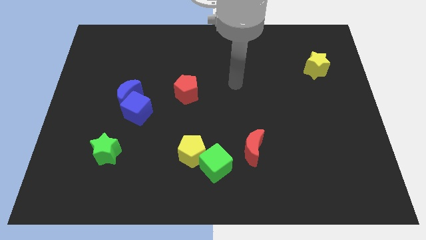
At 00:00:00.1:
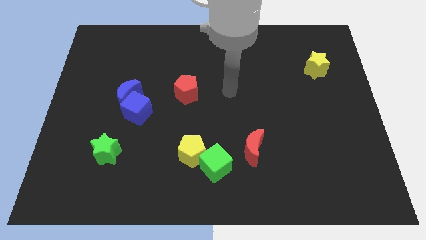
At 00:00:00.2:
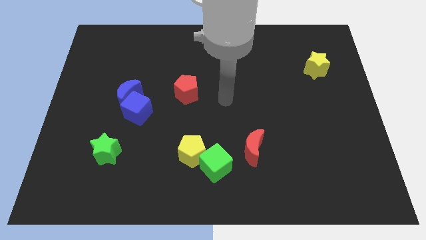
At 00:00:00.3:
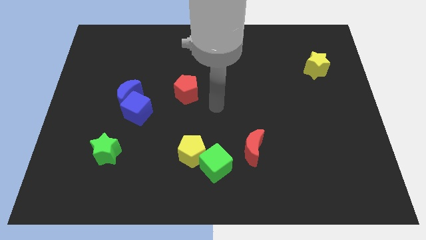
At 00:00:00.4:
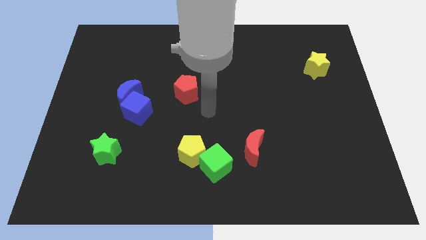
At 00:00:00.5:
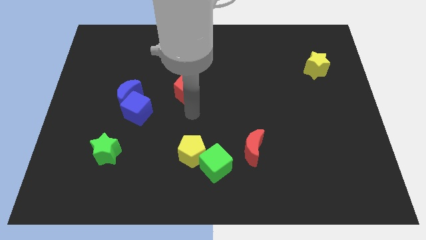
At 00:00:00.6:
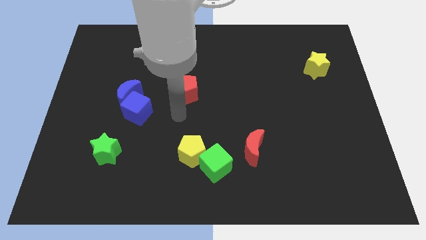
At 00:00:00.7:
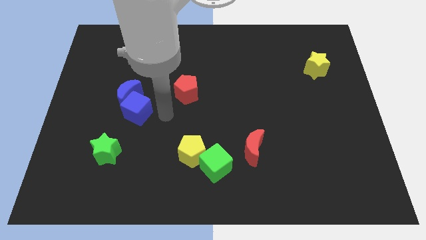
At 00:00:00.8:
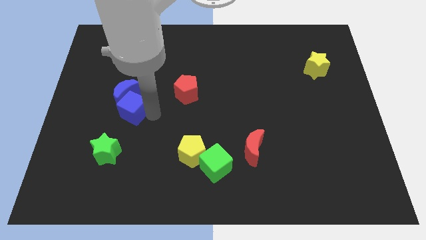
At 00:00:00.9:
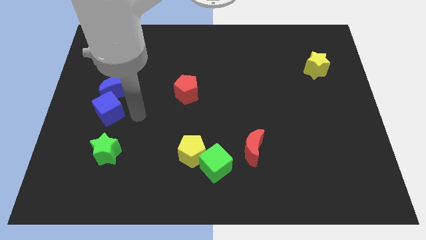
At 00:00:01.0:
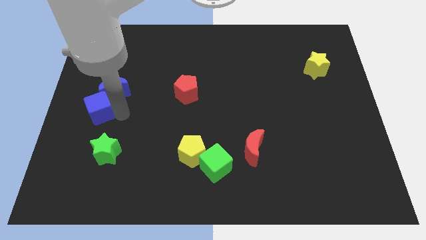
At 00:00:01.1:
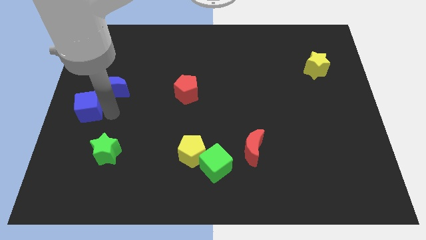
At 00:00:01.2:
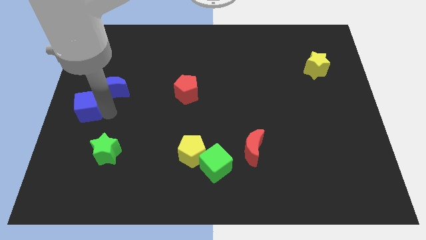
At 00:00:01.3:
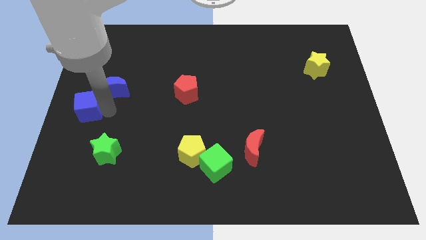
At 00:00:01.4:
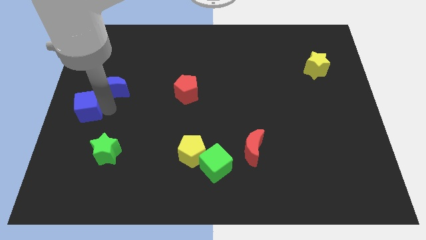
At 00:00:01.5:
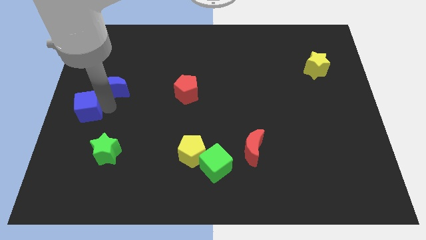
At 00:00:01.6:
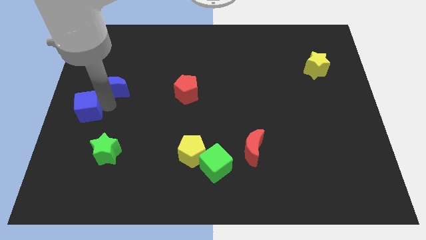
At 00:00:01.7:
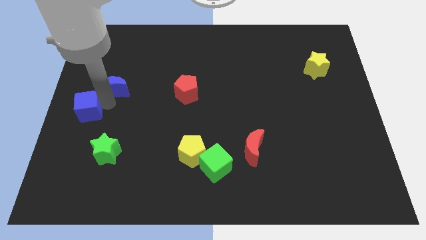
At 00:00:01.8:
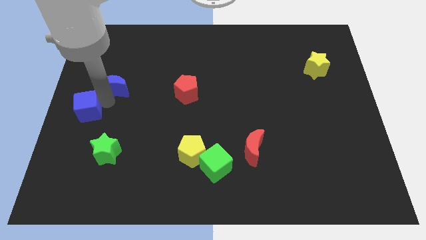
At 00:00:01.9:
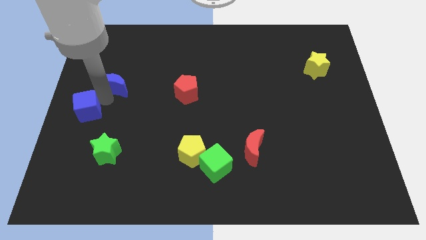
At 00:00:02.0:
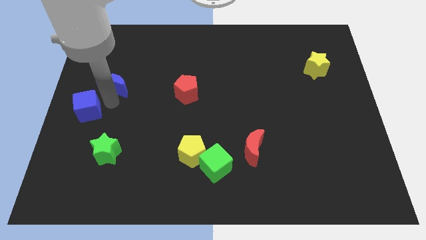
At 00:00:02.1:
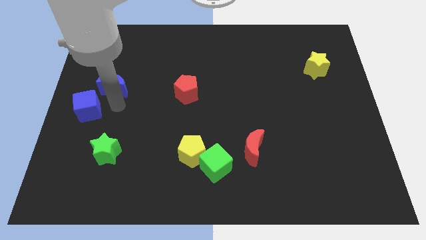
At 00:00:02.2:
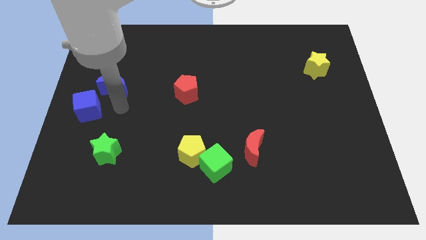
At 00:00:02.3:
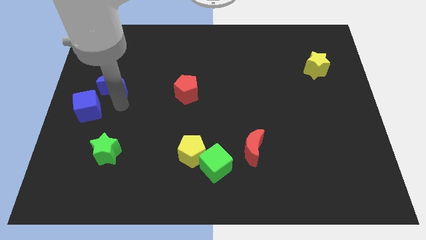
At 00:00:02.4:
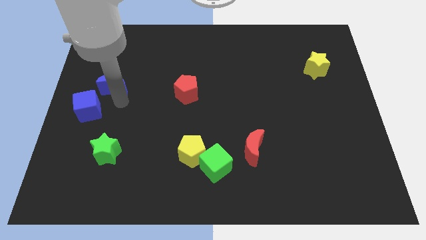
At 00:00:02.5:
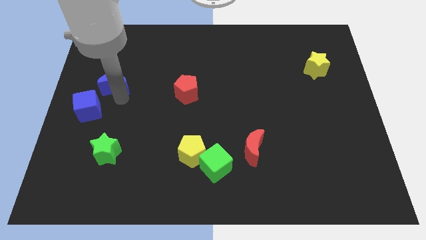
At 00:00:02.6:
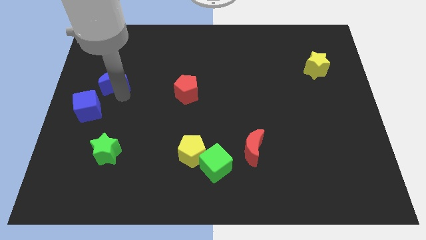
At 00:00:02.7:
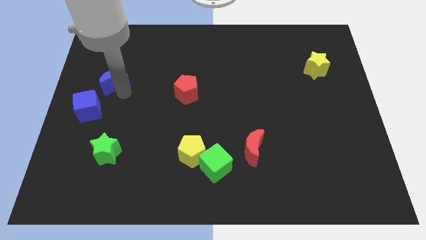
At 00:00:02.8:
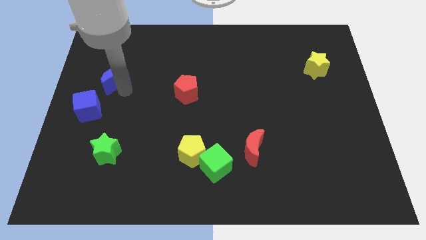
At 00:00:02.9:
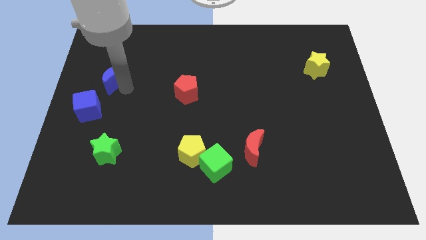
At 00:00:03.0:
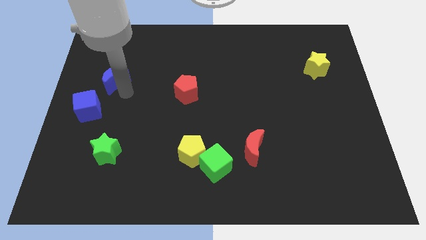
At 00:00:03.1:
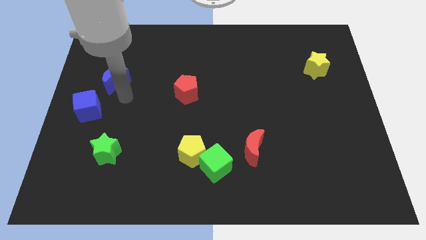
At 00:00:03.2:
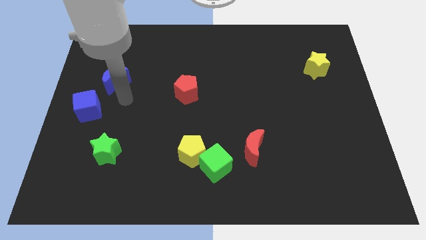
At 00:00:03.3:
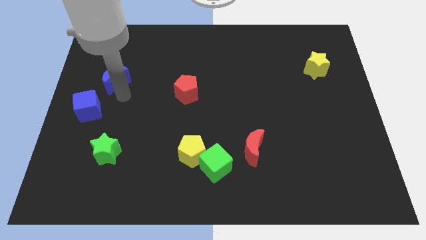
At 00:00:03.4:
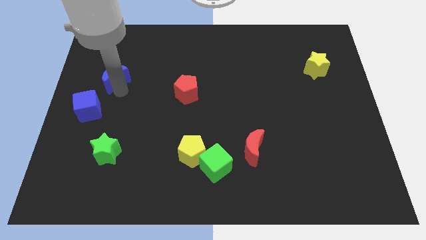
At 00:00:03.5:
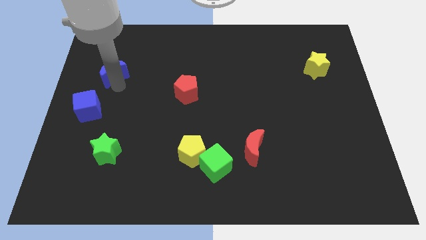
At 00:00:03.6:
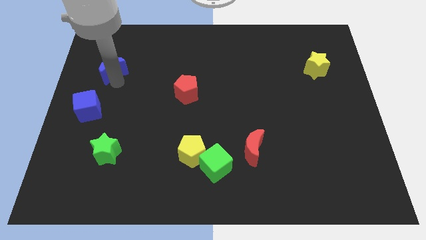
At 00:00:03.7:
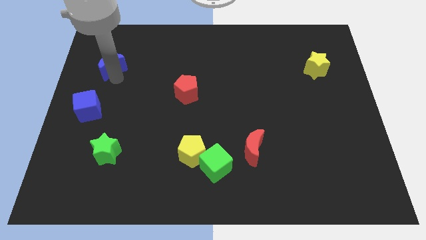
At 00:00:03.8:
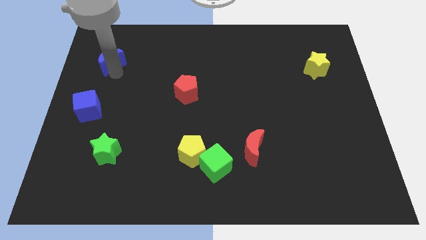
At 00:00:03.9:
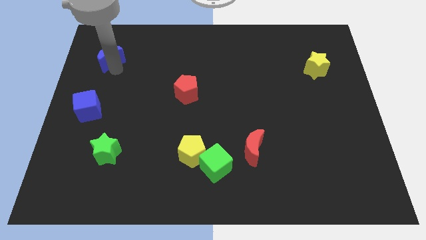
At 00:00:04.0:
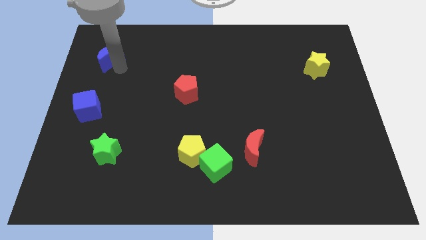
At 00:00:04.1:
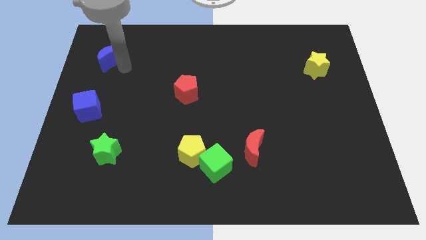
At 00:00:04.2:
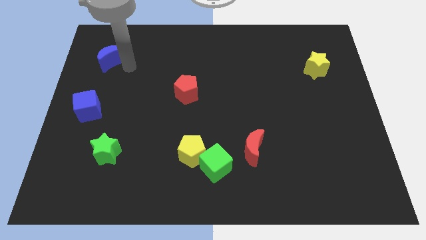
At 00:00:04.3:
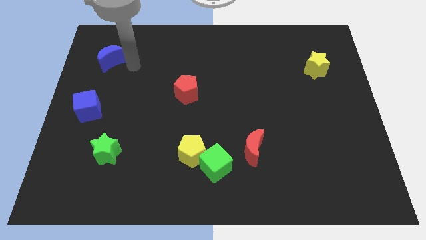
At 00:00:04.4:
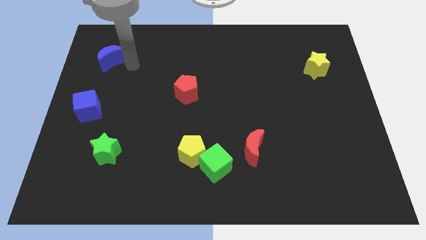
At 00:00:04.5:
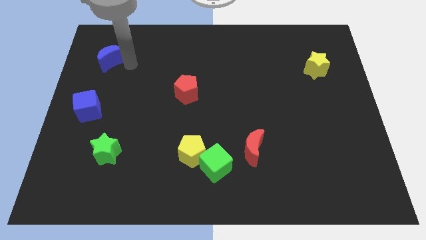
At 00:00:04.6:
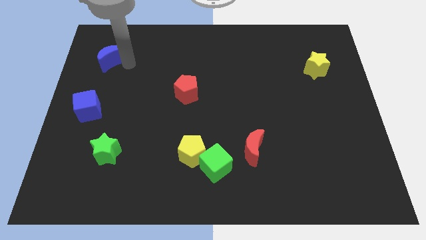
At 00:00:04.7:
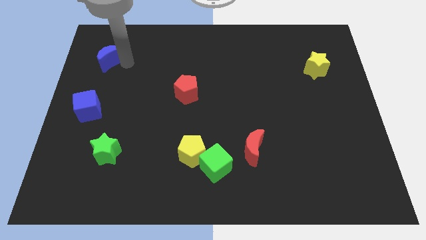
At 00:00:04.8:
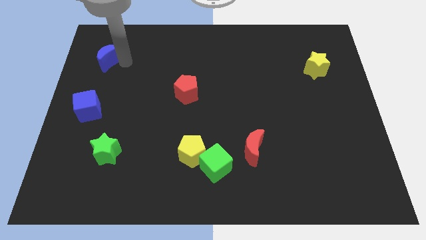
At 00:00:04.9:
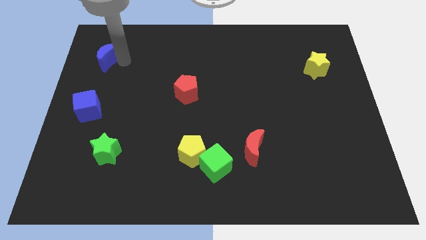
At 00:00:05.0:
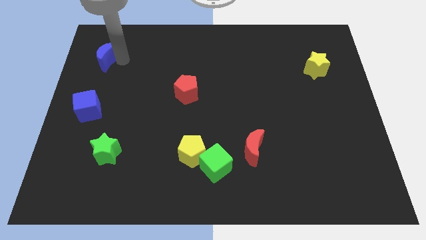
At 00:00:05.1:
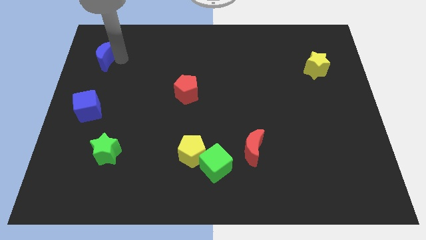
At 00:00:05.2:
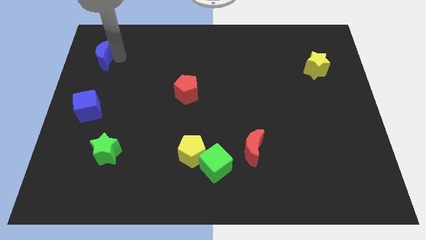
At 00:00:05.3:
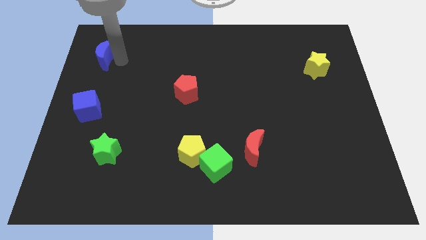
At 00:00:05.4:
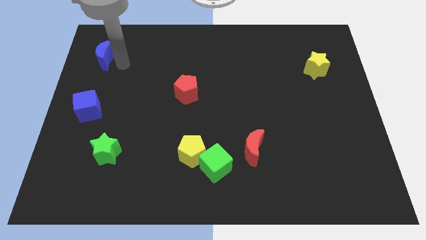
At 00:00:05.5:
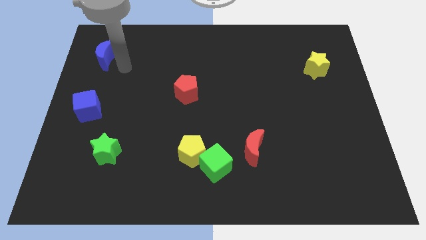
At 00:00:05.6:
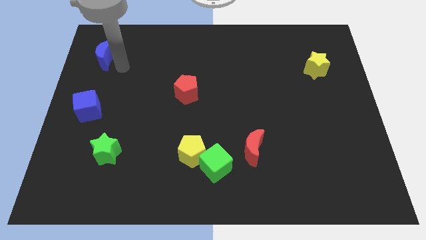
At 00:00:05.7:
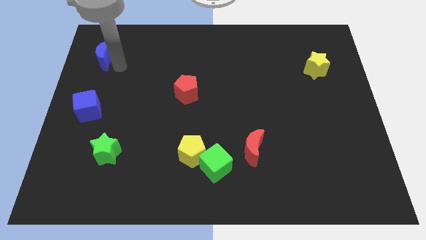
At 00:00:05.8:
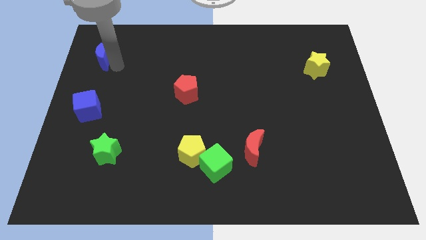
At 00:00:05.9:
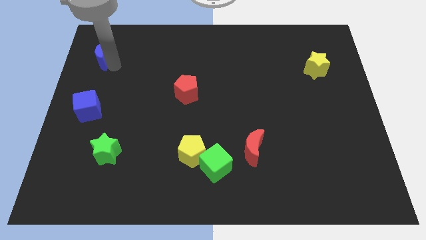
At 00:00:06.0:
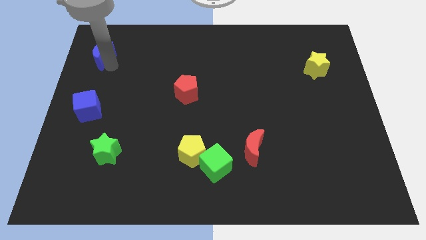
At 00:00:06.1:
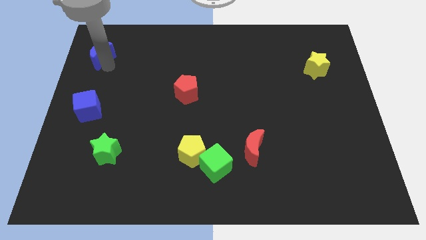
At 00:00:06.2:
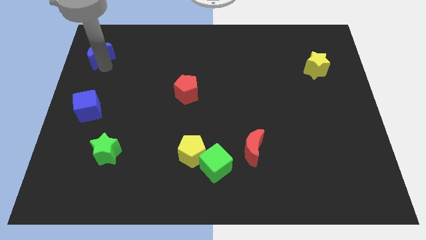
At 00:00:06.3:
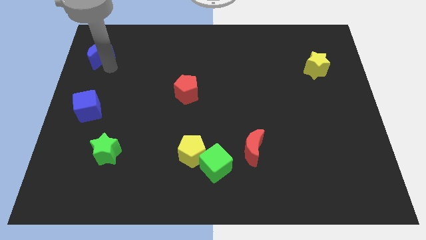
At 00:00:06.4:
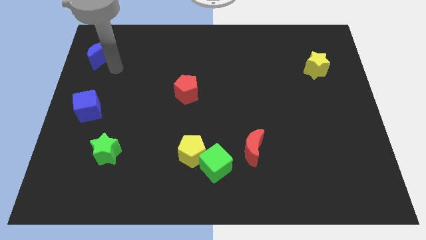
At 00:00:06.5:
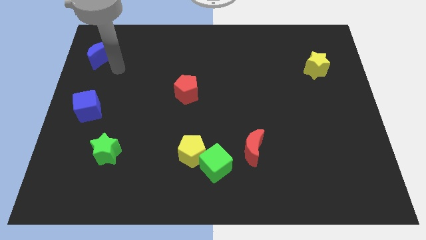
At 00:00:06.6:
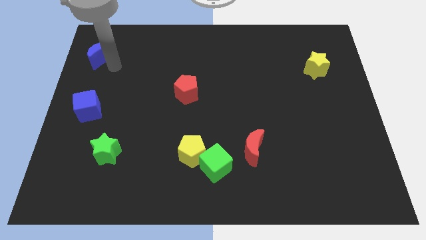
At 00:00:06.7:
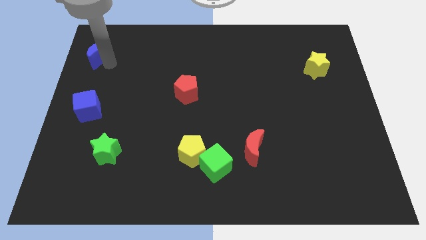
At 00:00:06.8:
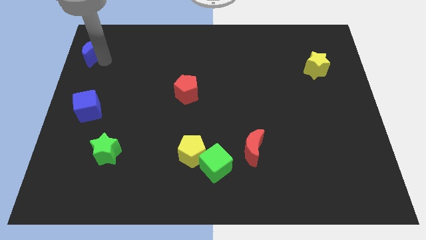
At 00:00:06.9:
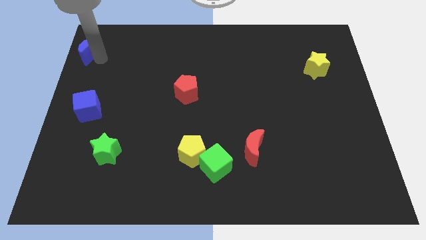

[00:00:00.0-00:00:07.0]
move the blue moon to the top left
